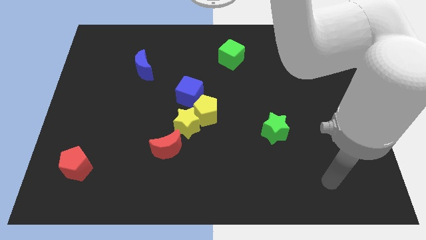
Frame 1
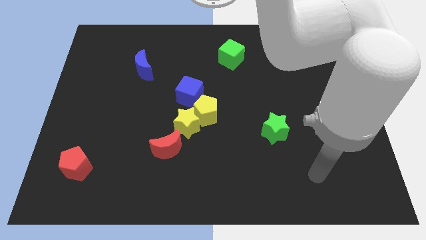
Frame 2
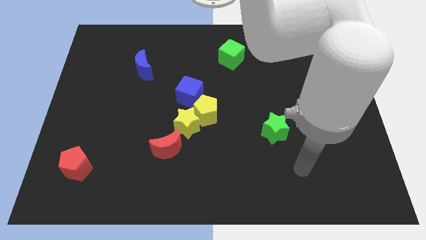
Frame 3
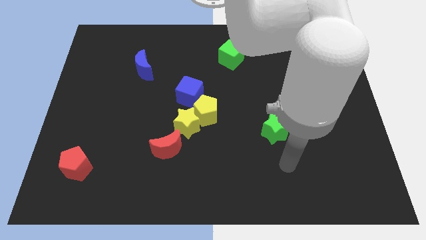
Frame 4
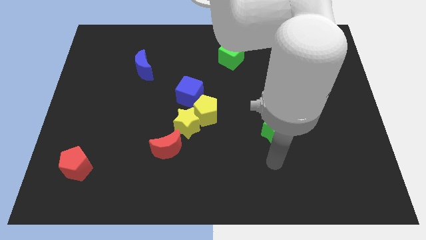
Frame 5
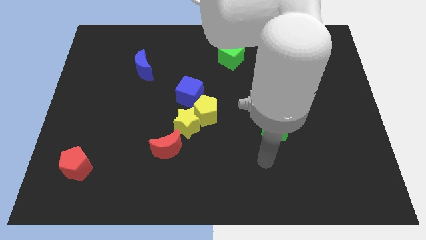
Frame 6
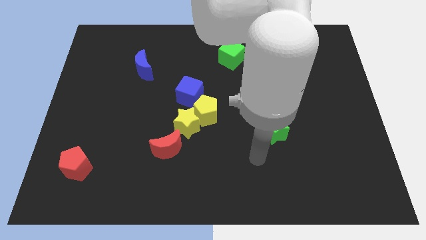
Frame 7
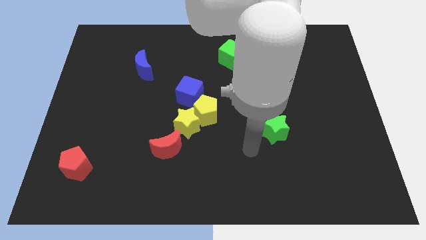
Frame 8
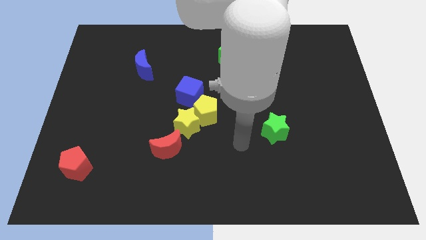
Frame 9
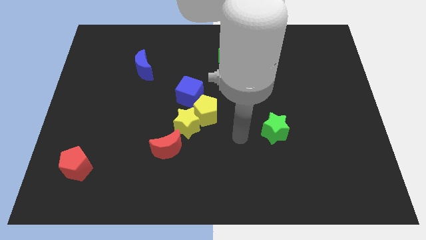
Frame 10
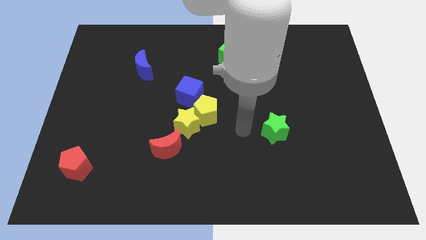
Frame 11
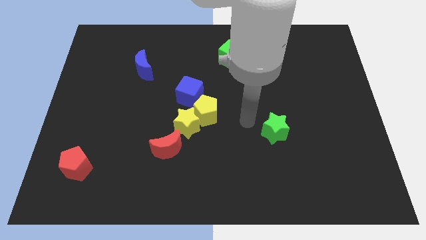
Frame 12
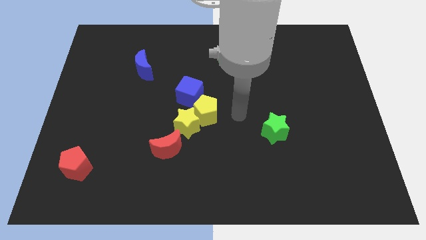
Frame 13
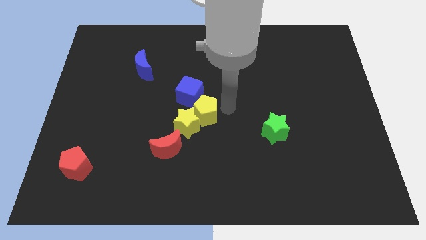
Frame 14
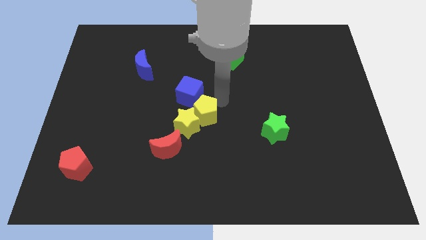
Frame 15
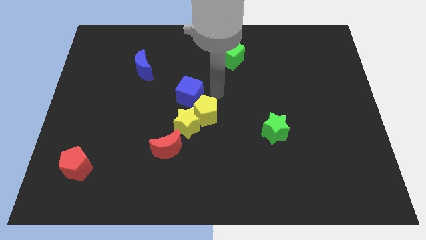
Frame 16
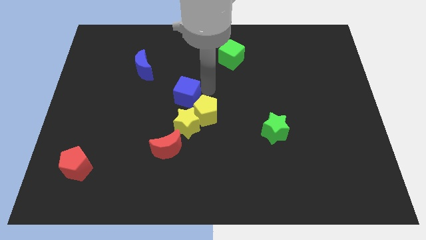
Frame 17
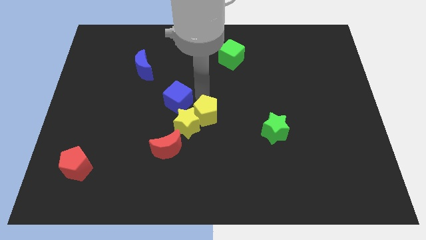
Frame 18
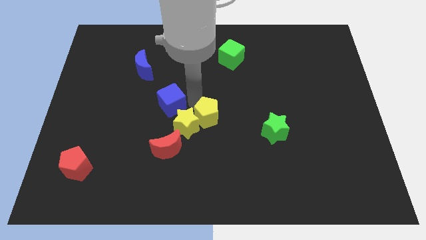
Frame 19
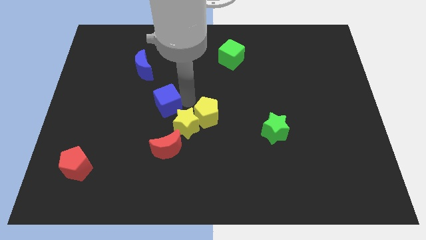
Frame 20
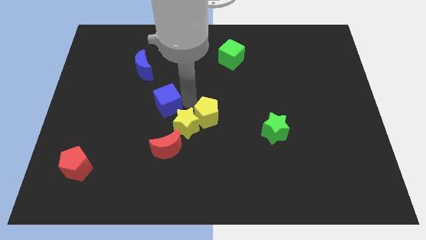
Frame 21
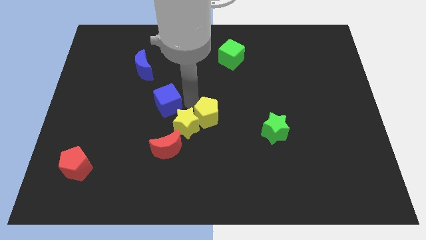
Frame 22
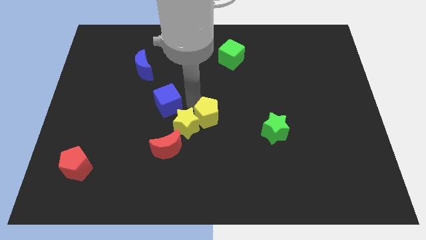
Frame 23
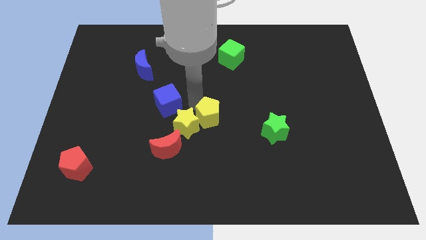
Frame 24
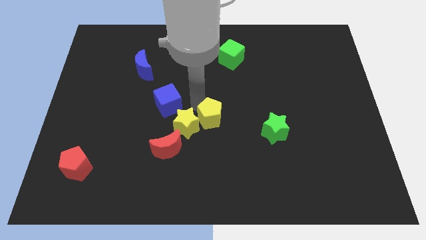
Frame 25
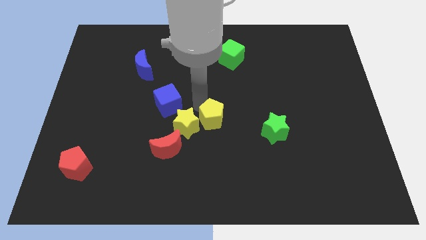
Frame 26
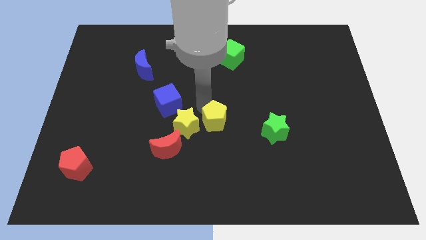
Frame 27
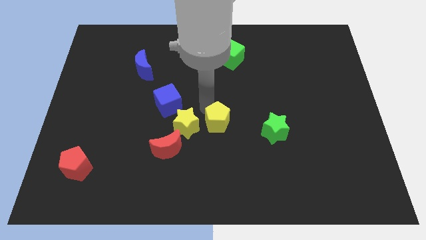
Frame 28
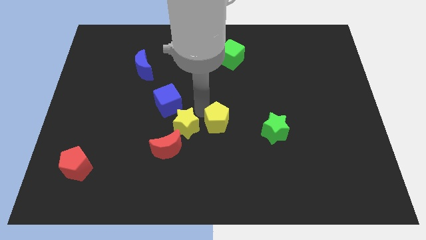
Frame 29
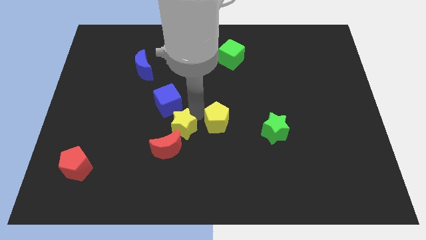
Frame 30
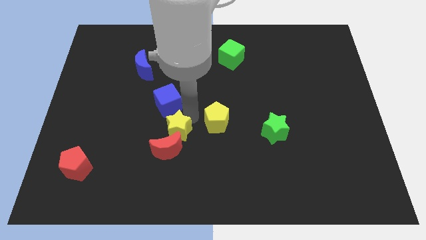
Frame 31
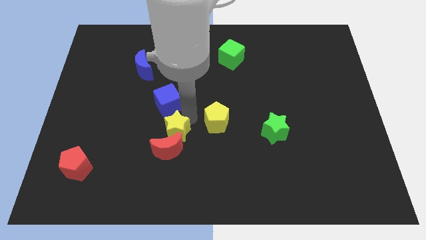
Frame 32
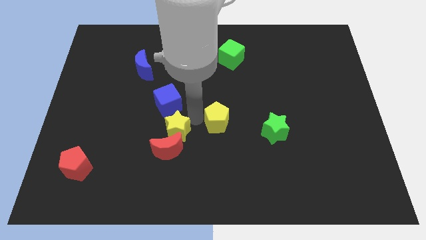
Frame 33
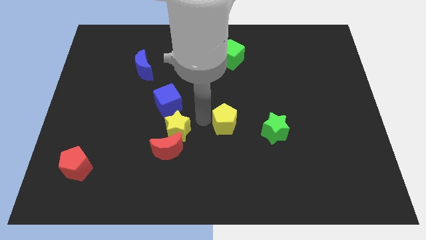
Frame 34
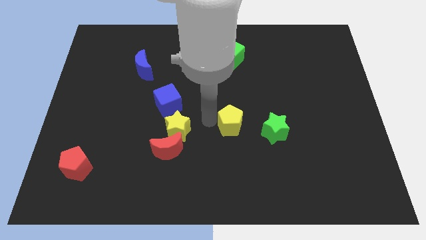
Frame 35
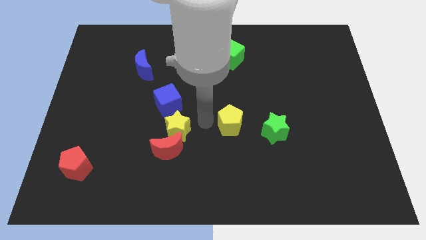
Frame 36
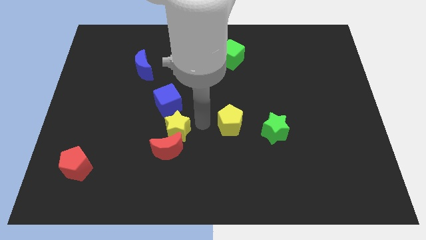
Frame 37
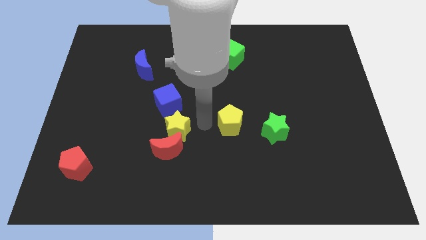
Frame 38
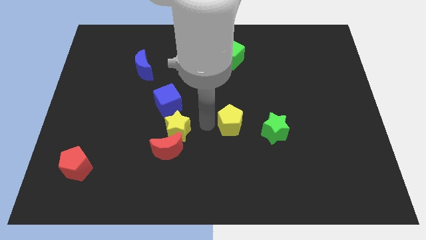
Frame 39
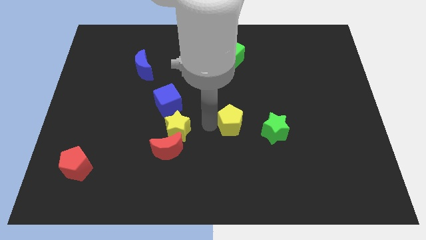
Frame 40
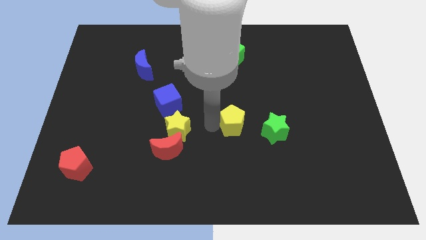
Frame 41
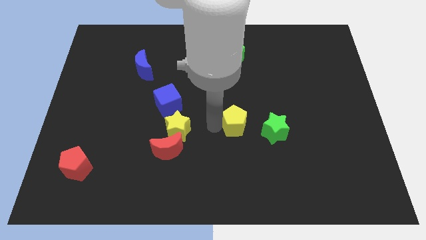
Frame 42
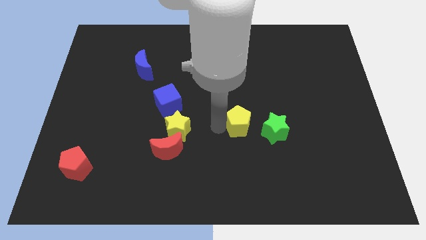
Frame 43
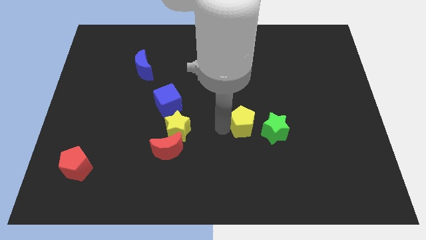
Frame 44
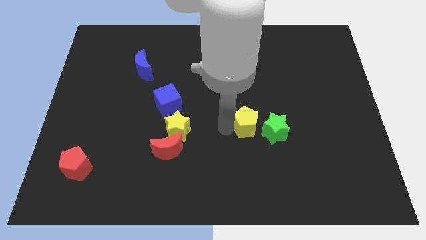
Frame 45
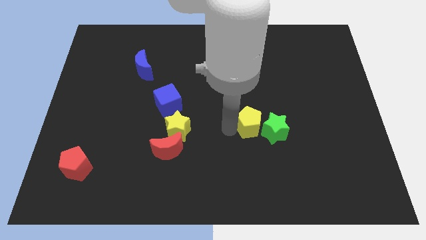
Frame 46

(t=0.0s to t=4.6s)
put the yellow pentagon towards the green star

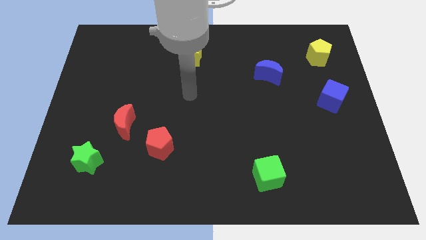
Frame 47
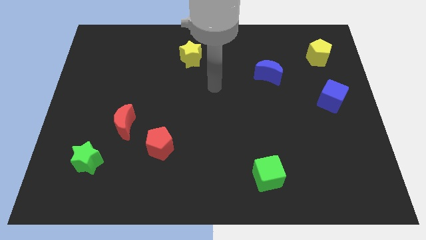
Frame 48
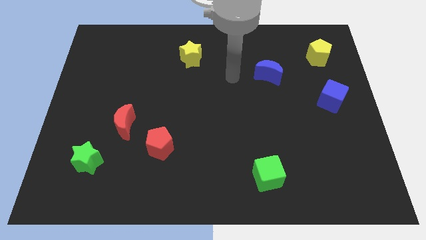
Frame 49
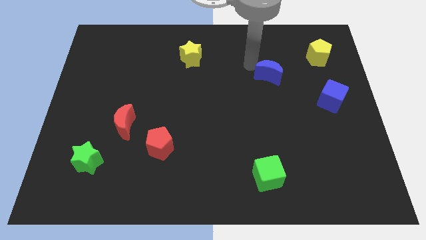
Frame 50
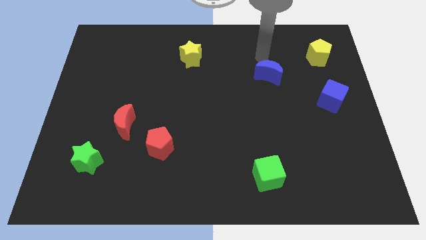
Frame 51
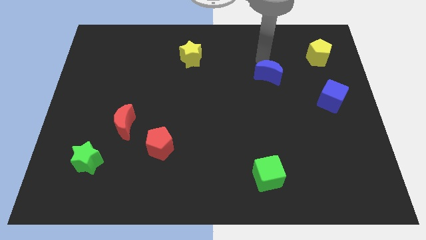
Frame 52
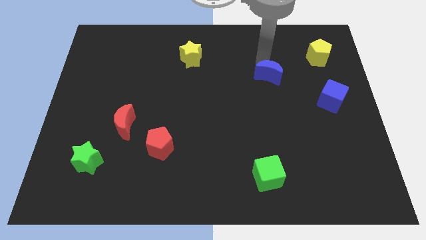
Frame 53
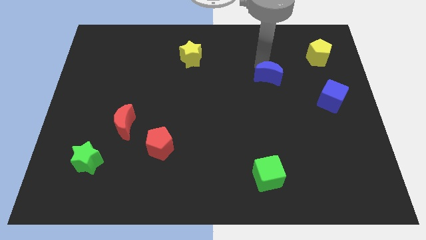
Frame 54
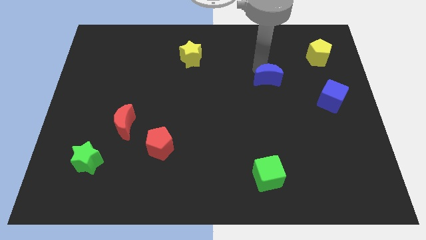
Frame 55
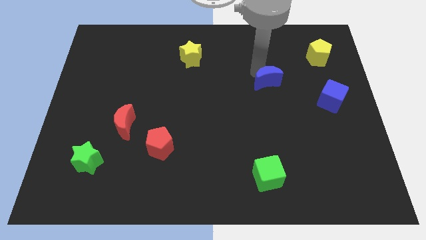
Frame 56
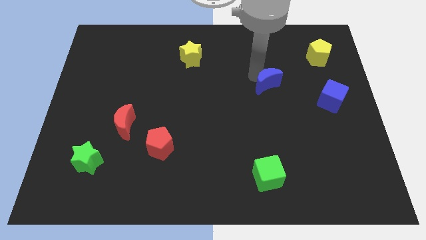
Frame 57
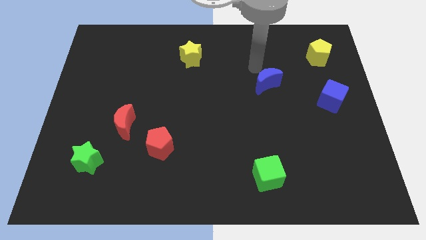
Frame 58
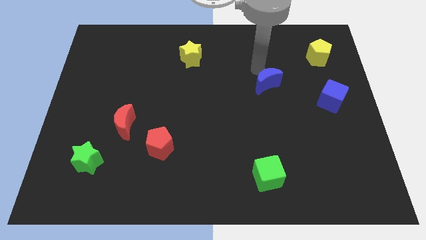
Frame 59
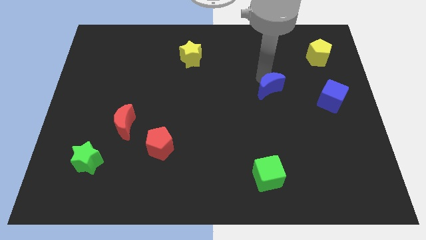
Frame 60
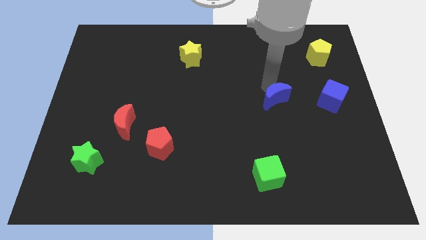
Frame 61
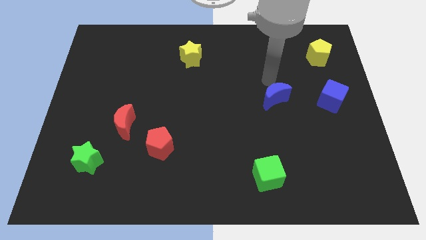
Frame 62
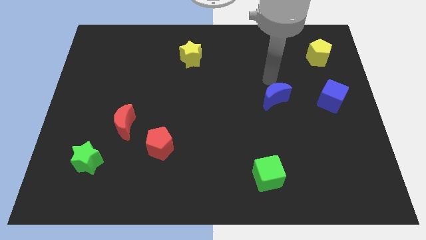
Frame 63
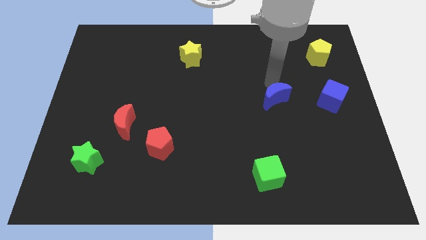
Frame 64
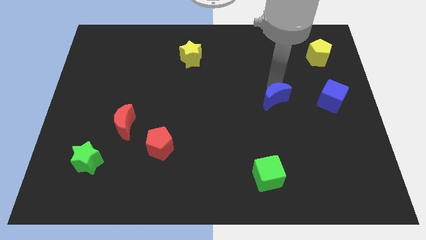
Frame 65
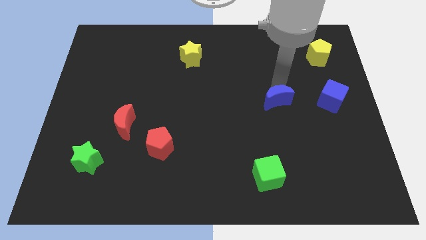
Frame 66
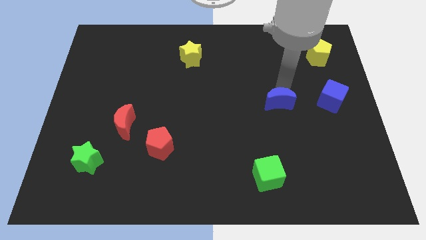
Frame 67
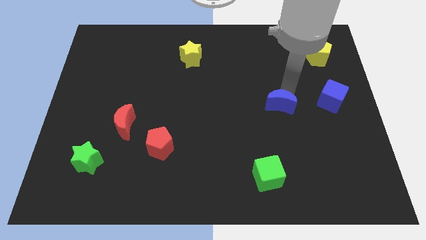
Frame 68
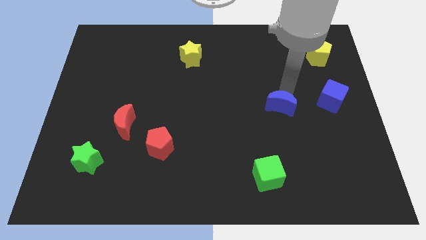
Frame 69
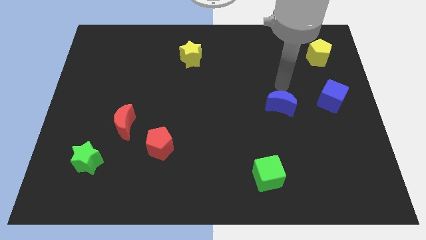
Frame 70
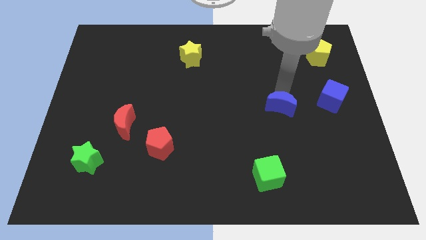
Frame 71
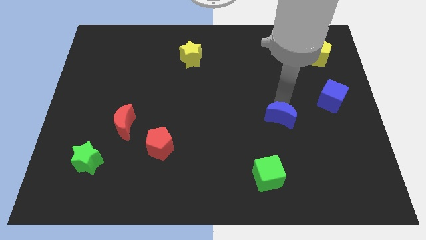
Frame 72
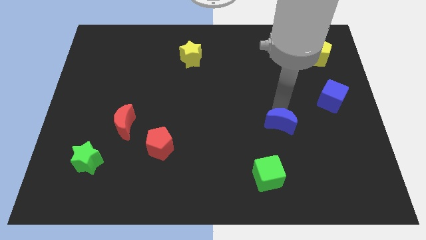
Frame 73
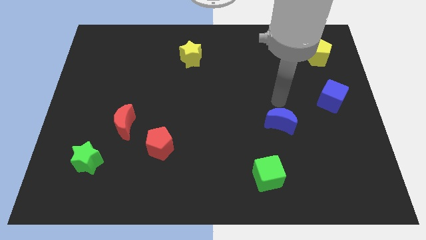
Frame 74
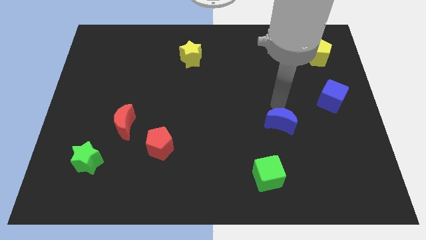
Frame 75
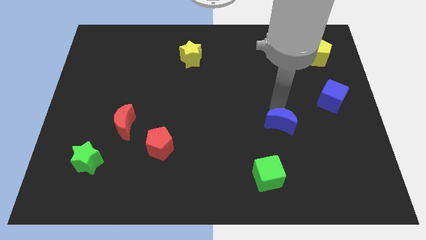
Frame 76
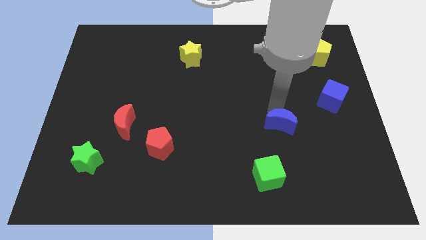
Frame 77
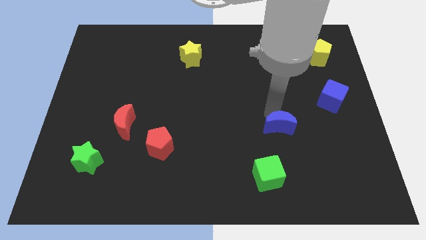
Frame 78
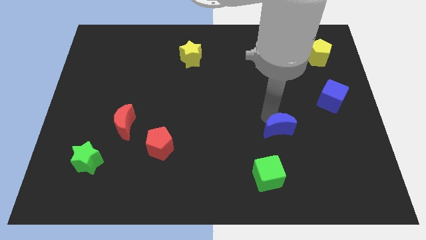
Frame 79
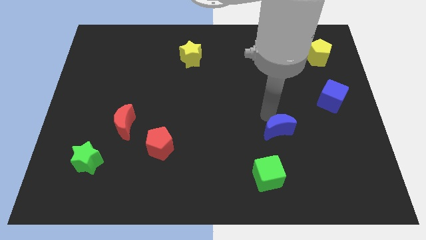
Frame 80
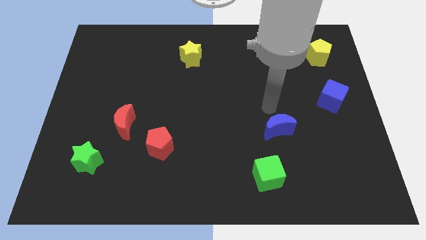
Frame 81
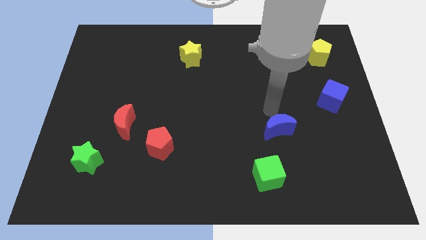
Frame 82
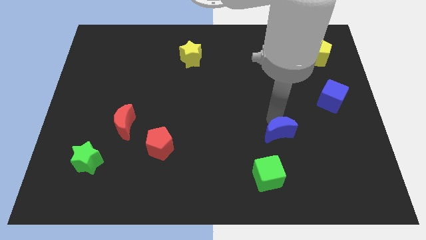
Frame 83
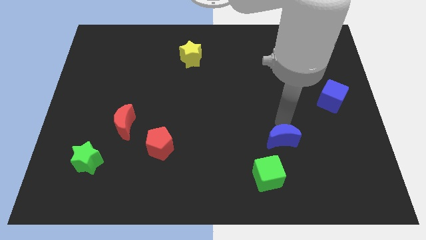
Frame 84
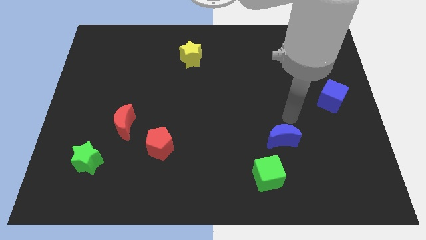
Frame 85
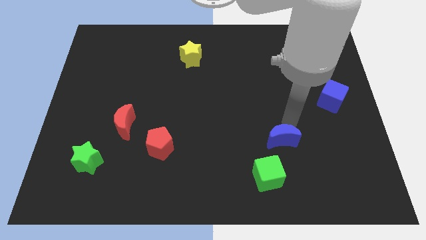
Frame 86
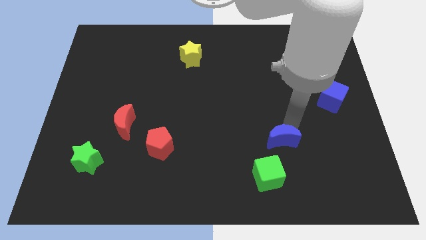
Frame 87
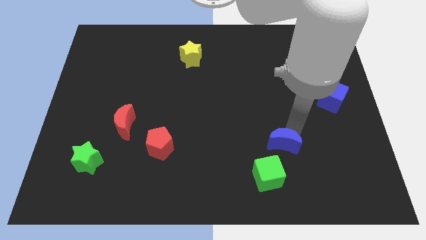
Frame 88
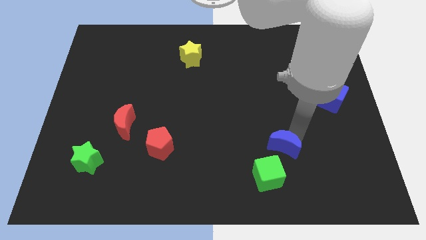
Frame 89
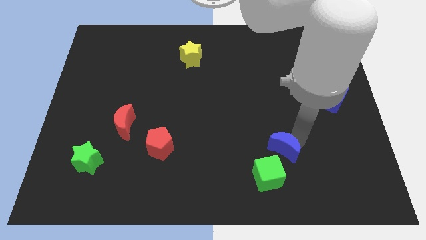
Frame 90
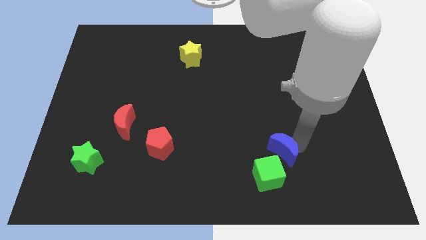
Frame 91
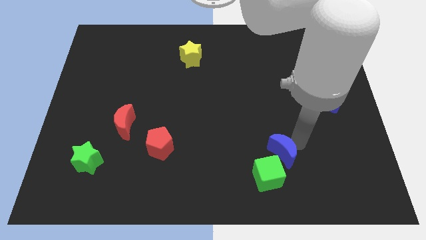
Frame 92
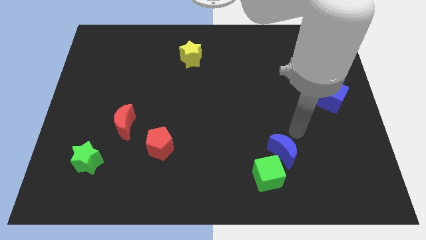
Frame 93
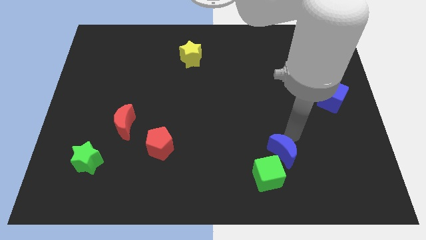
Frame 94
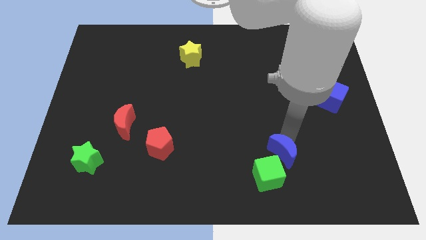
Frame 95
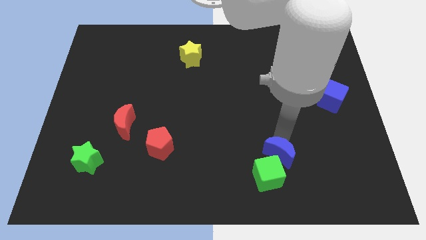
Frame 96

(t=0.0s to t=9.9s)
move the blue moon towards the green cube
